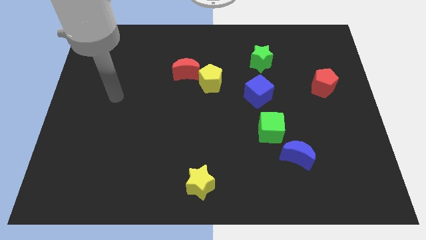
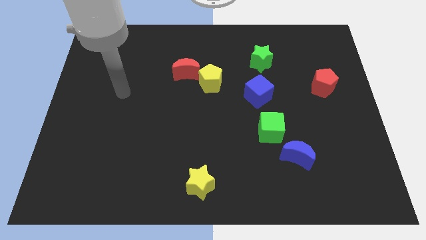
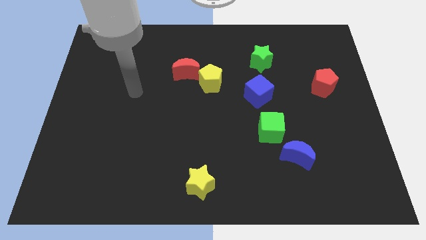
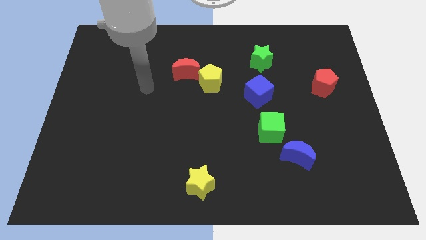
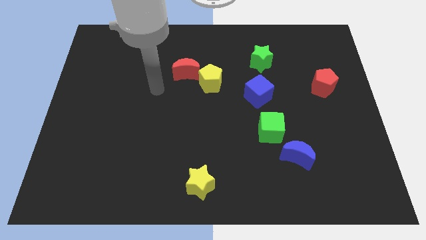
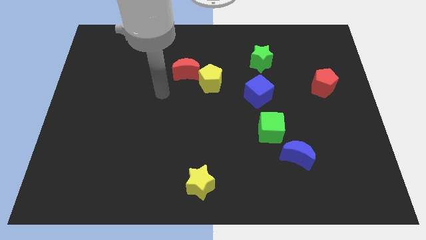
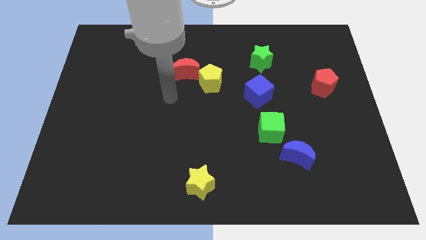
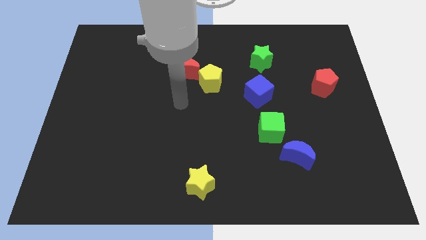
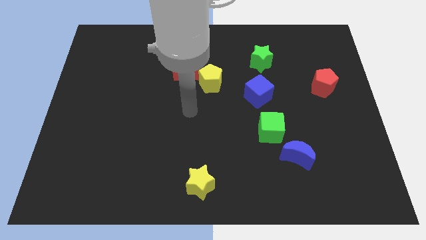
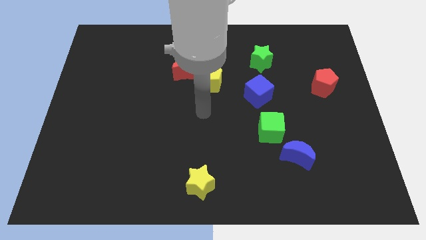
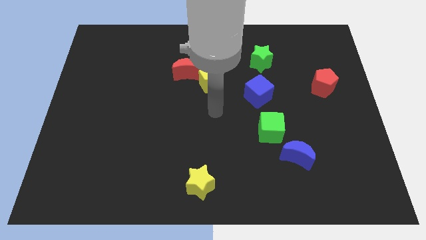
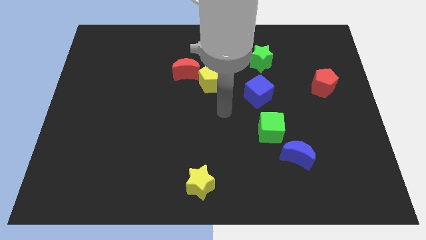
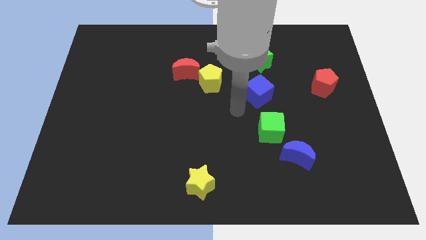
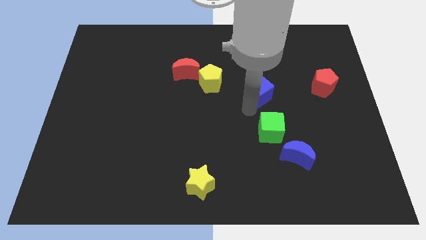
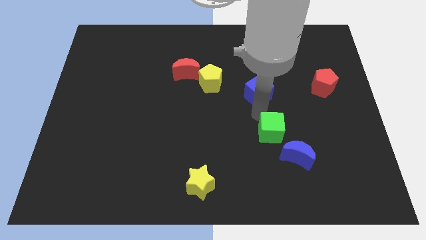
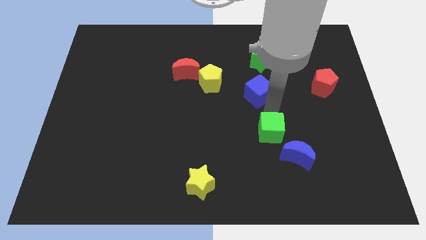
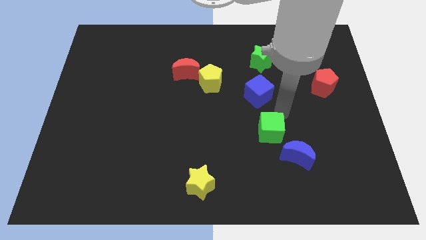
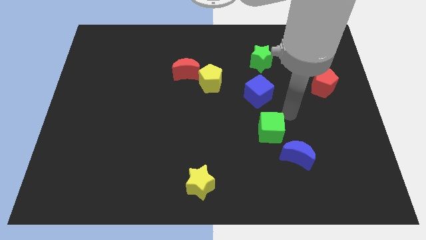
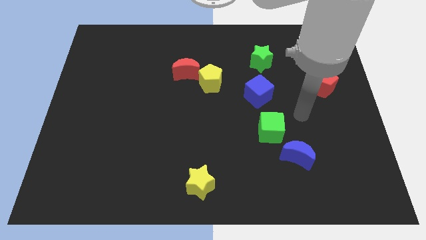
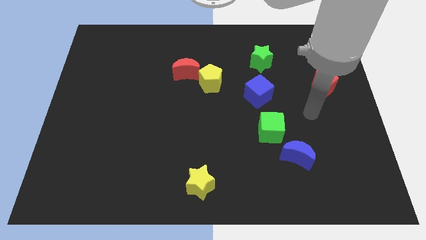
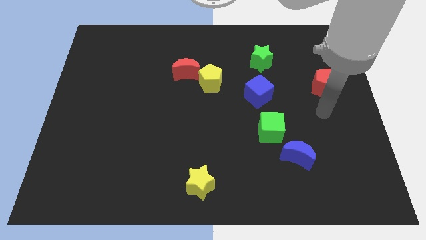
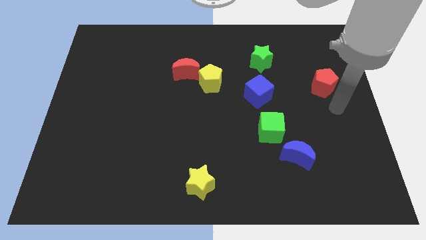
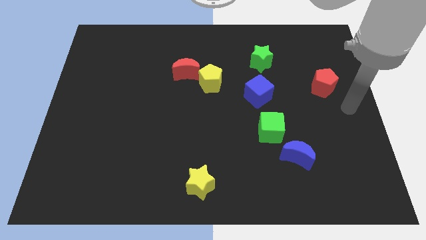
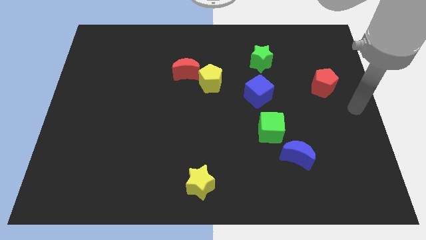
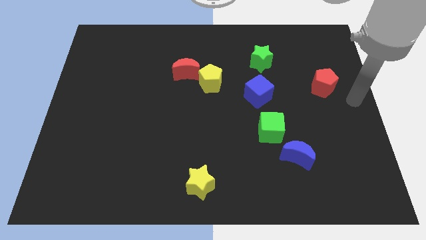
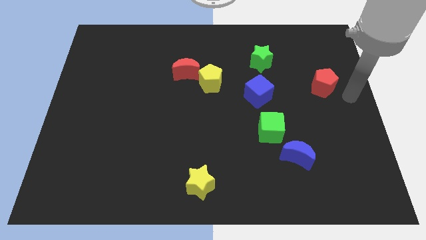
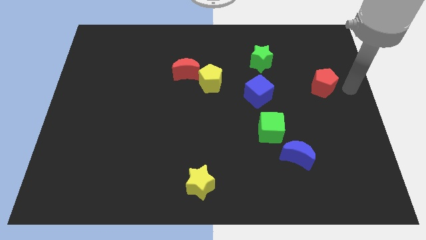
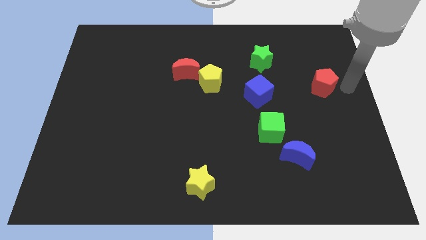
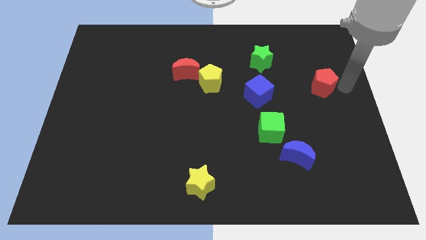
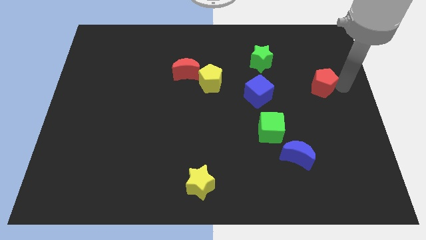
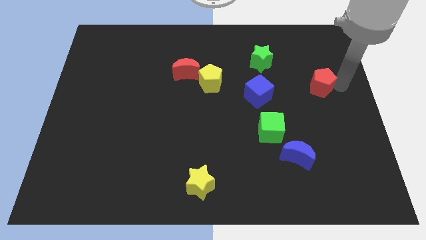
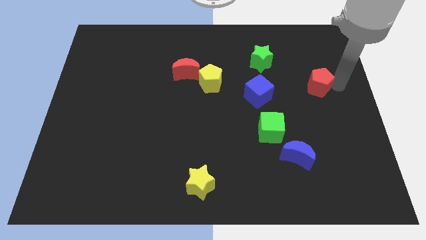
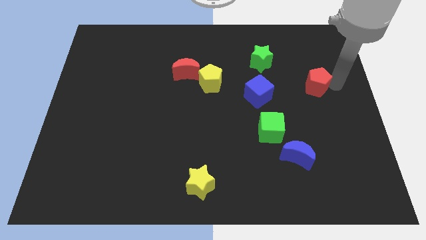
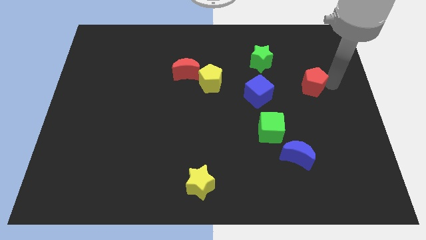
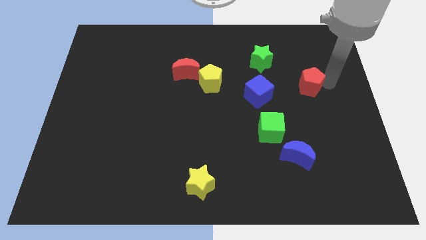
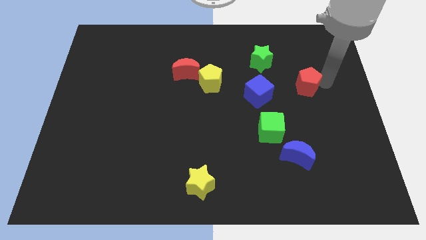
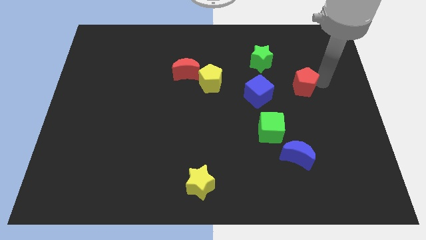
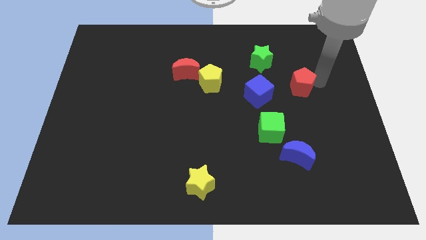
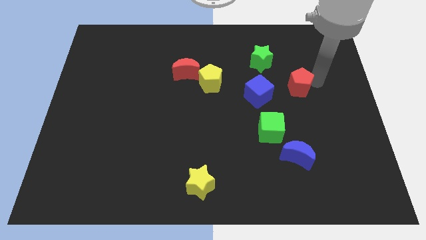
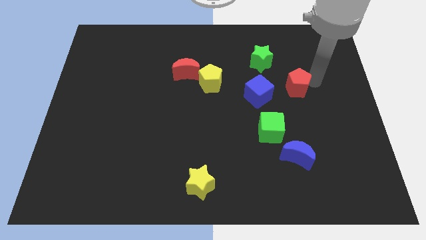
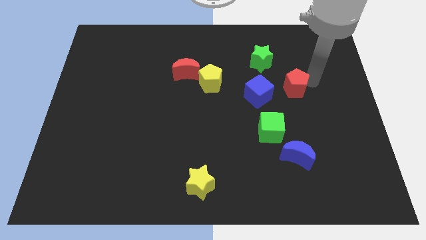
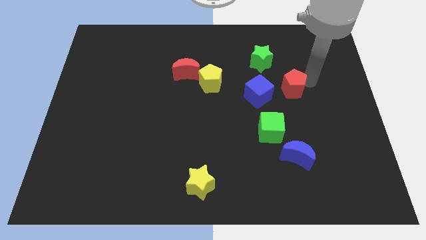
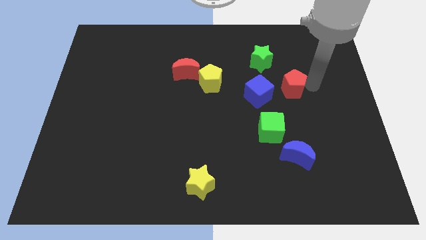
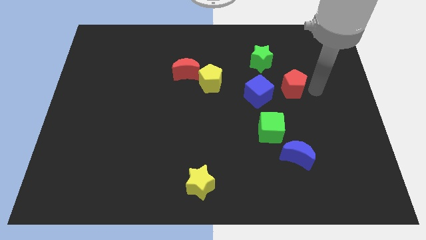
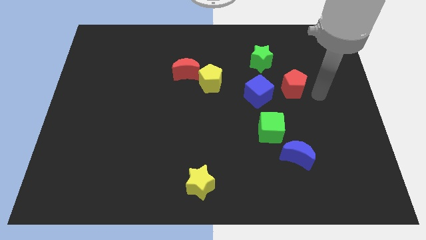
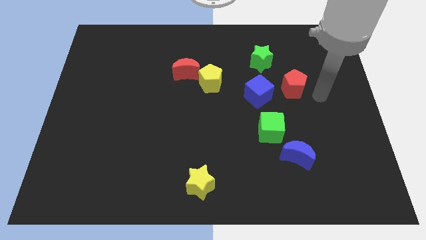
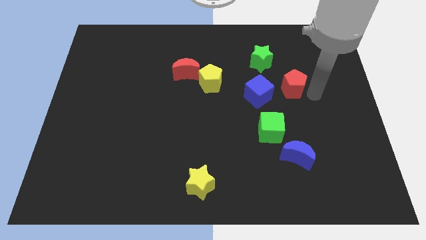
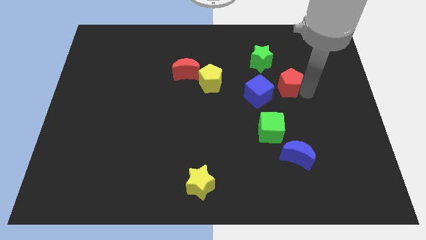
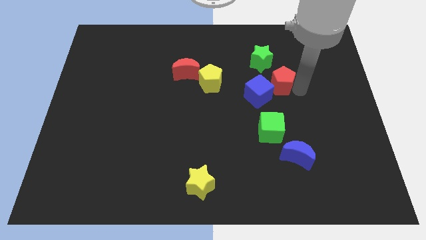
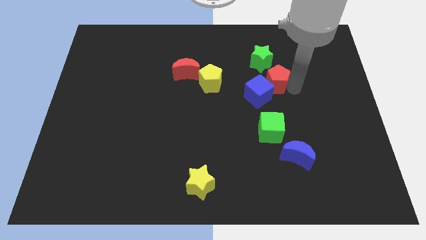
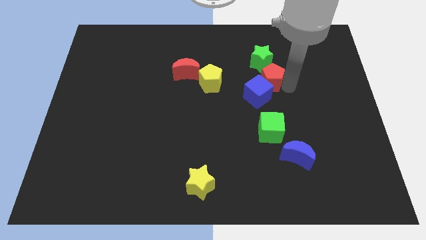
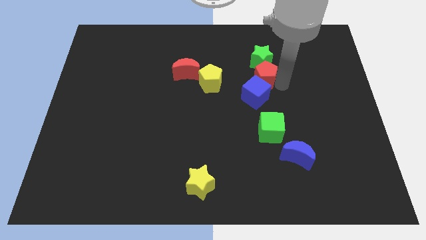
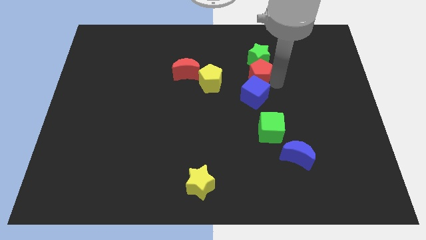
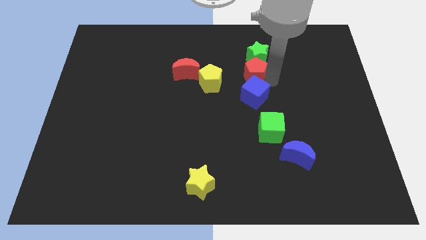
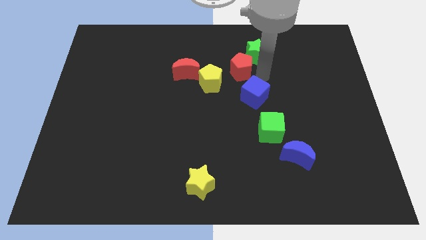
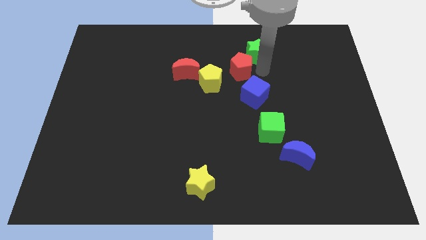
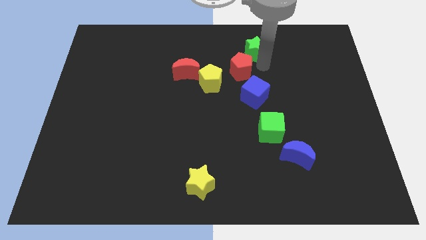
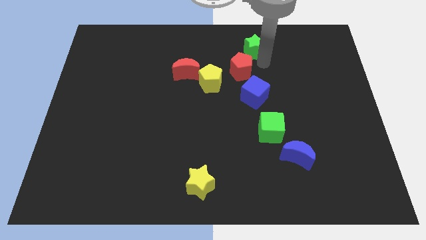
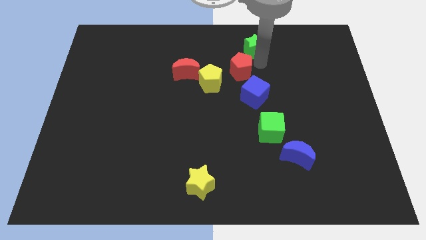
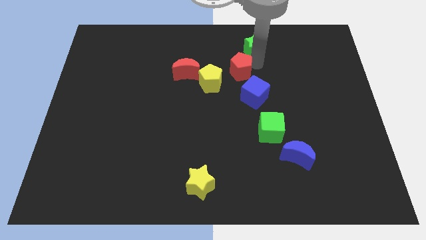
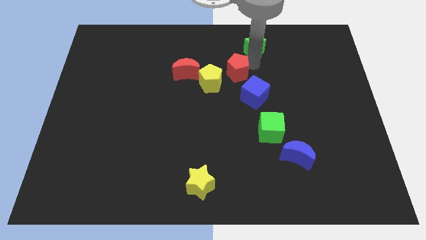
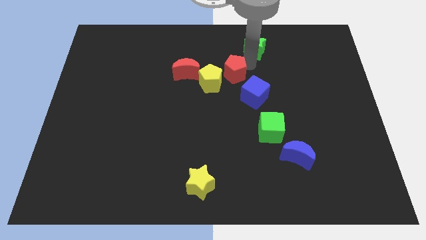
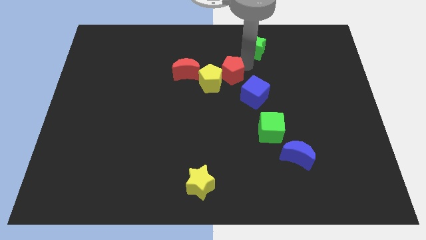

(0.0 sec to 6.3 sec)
put the red pentagon to the yellow pentagon

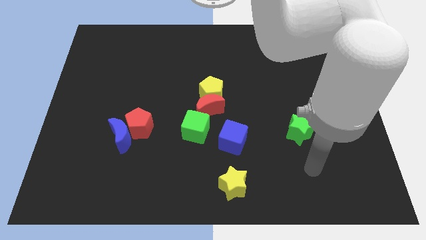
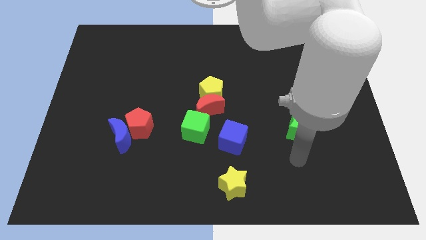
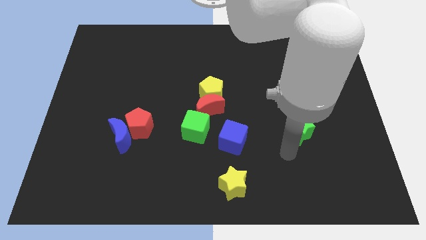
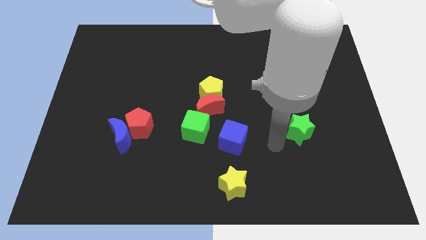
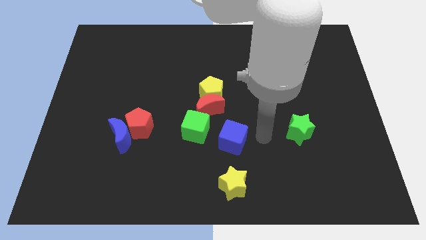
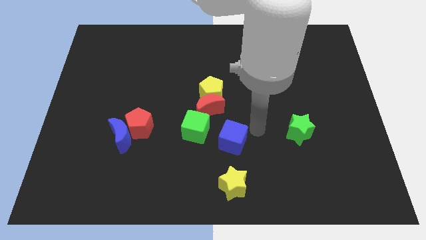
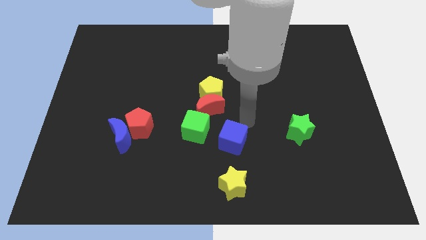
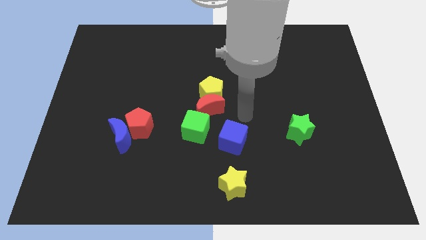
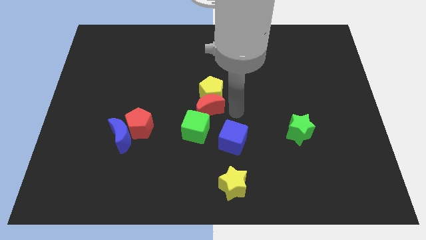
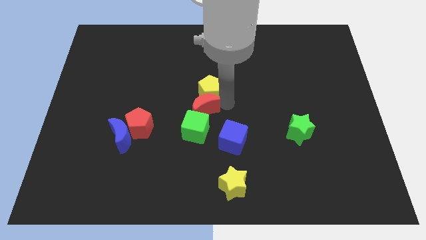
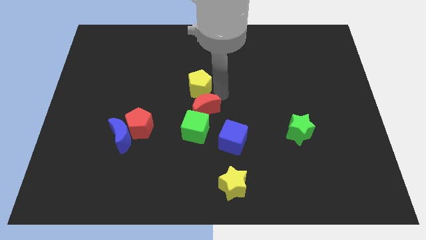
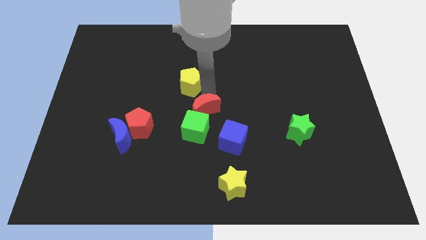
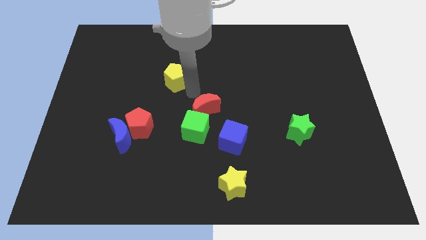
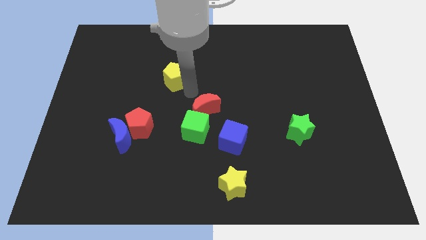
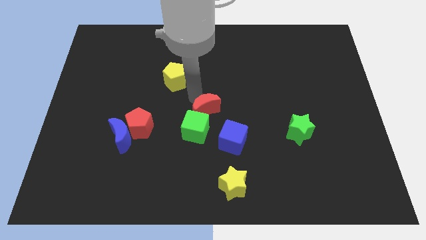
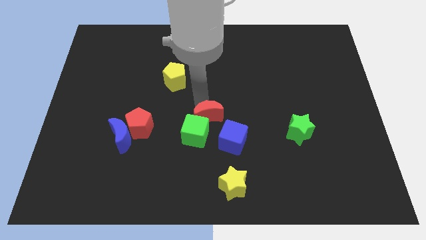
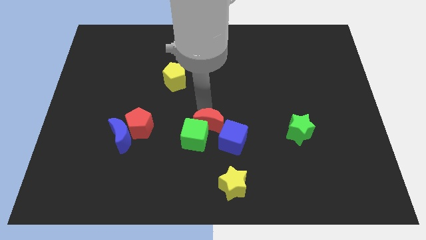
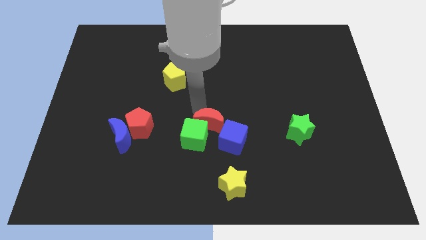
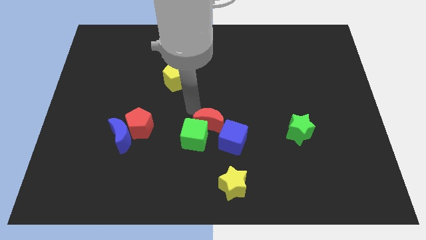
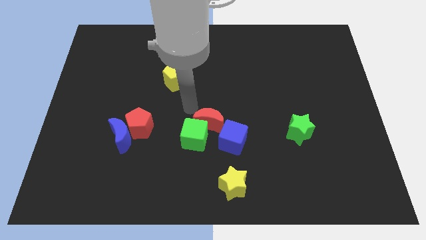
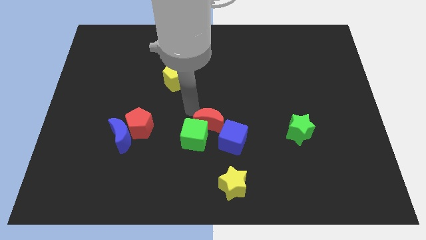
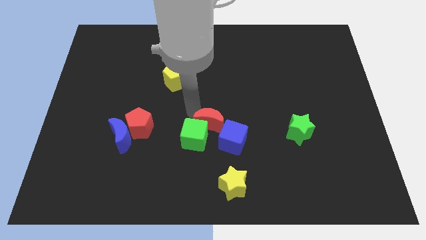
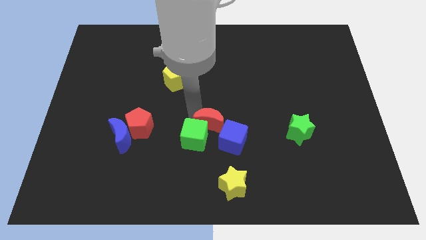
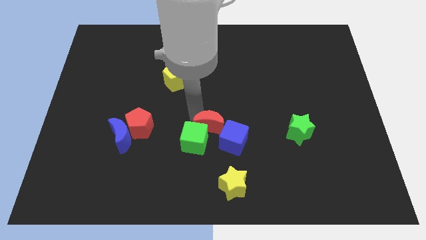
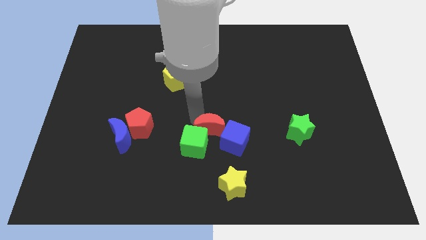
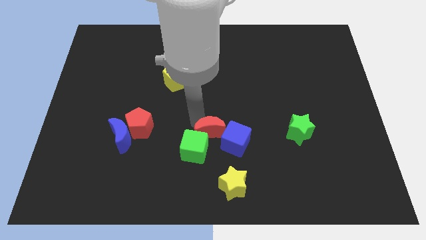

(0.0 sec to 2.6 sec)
move the red moon next to the blue cube
